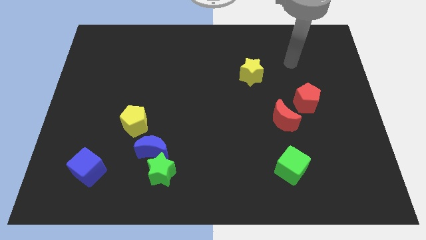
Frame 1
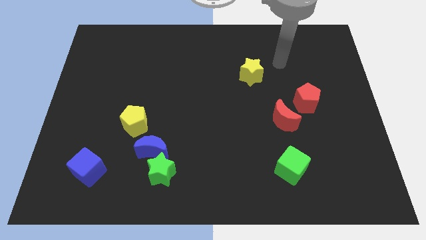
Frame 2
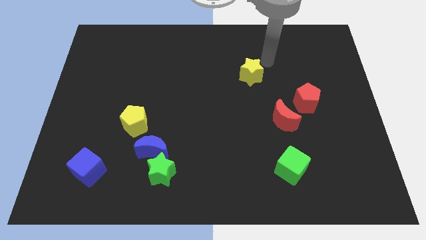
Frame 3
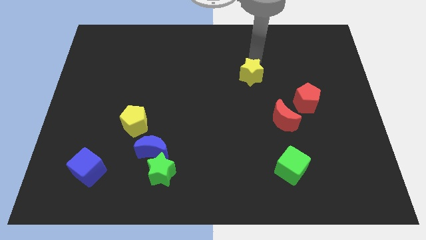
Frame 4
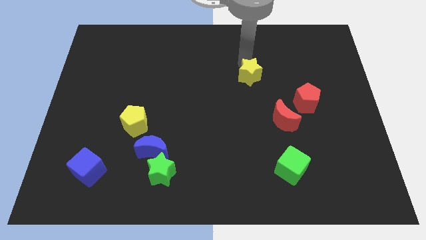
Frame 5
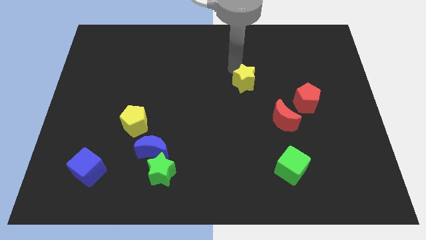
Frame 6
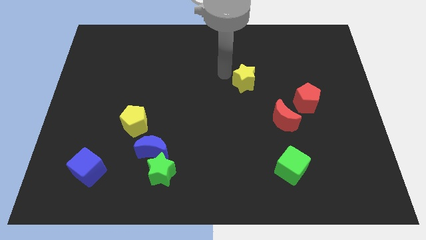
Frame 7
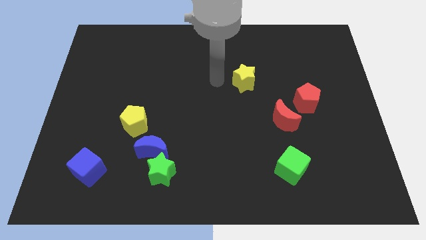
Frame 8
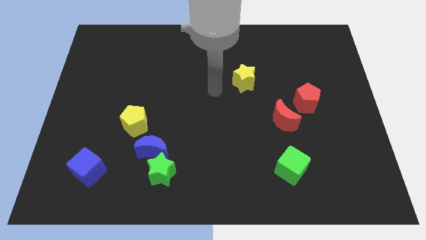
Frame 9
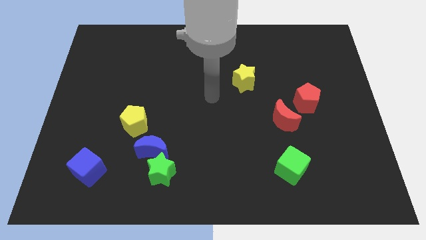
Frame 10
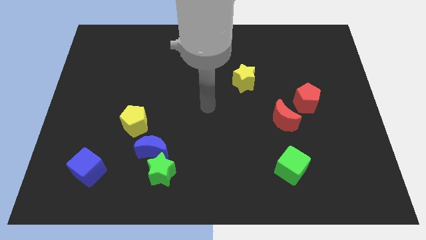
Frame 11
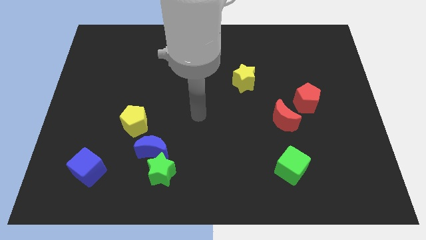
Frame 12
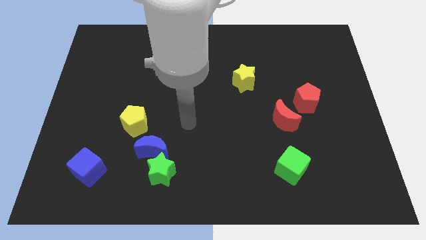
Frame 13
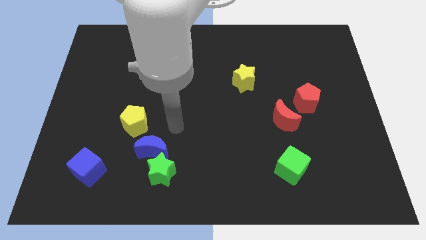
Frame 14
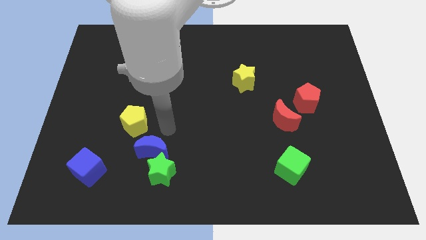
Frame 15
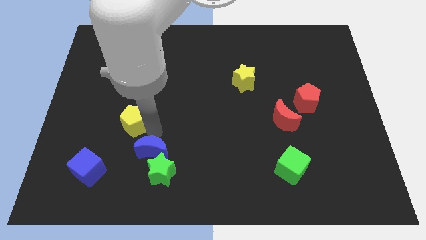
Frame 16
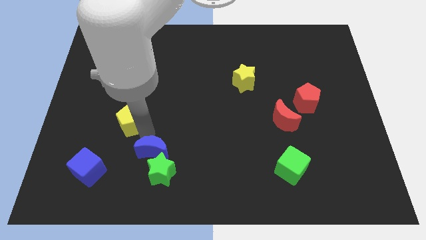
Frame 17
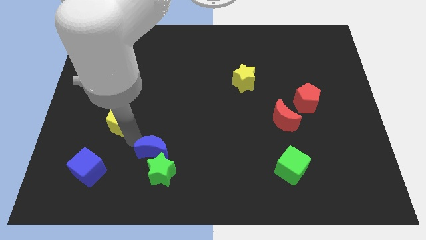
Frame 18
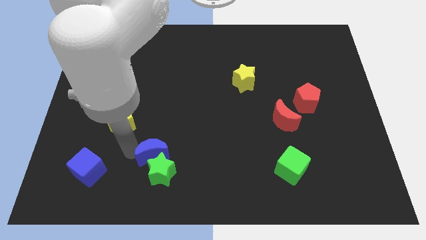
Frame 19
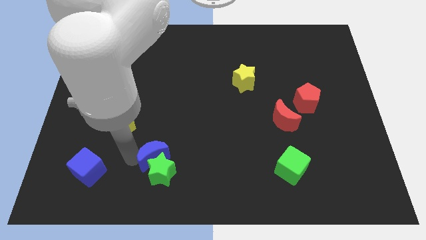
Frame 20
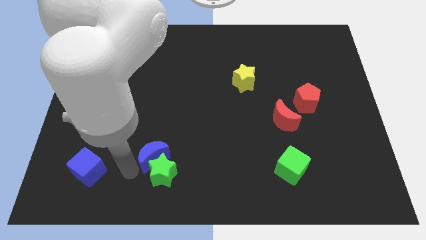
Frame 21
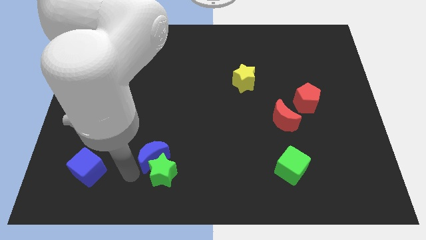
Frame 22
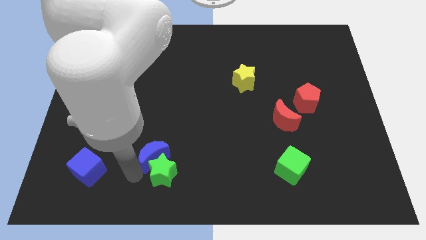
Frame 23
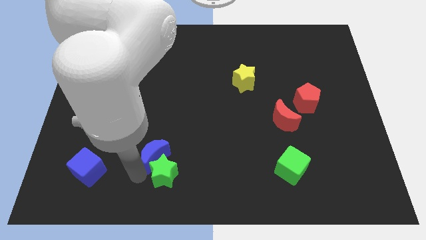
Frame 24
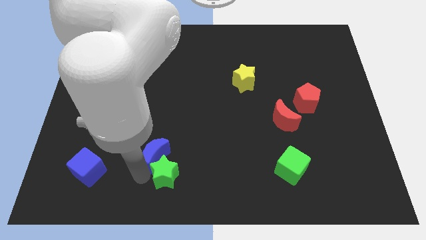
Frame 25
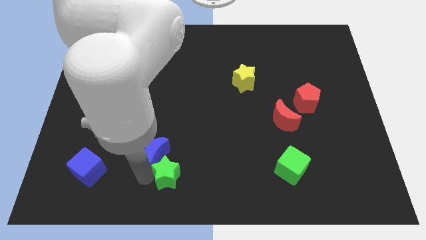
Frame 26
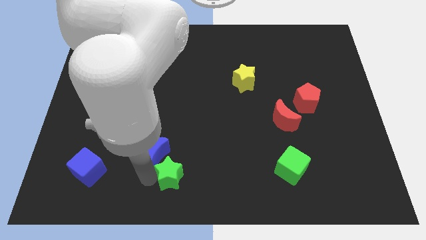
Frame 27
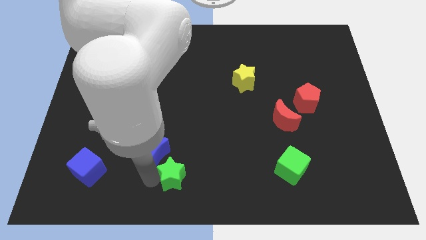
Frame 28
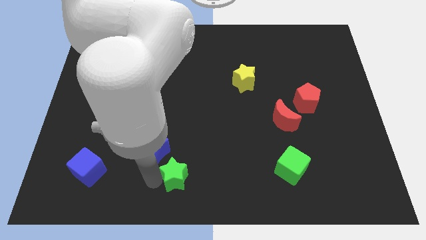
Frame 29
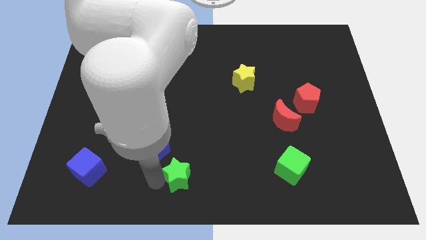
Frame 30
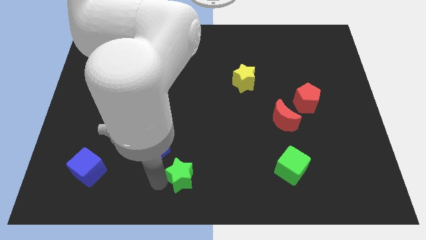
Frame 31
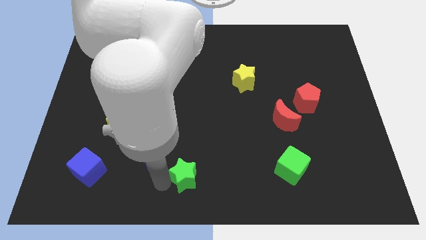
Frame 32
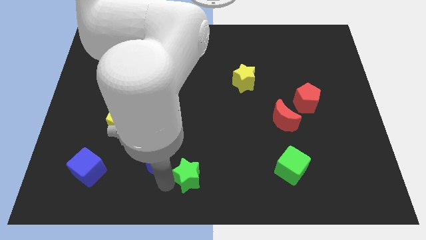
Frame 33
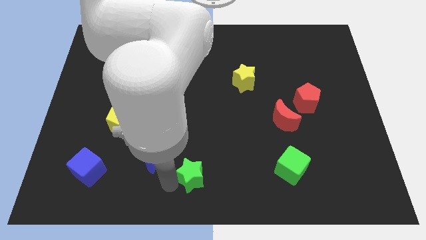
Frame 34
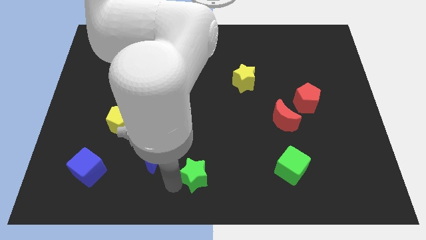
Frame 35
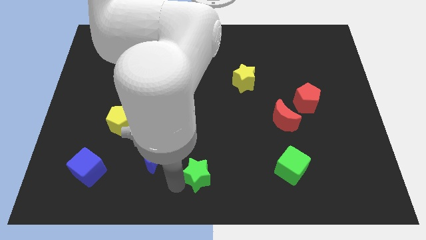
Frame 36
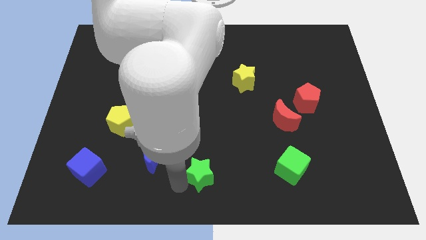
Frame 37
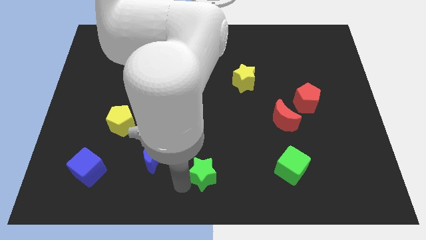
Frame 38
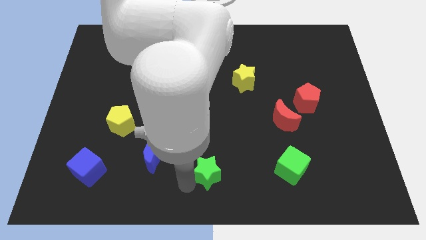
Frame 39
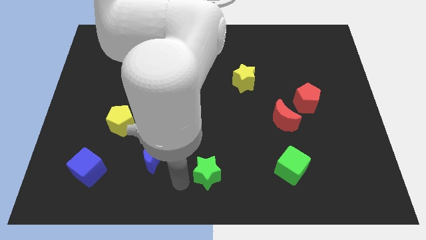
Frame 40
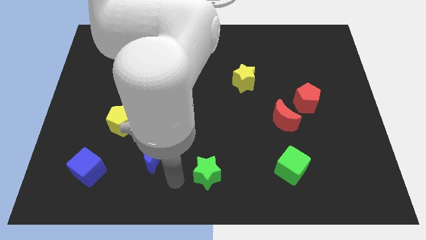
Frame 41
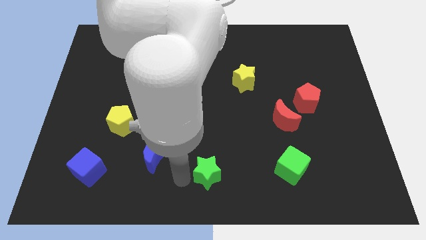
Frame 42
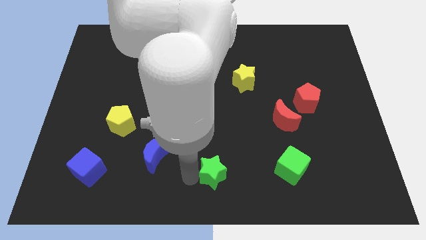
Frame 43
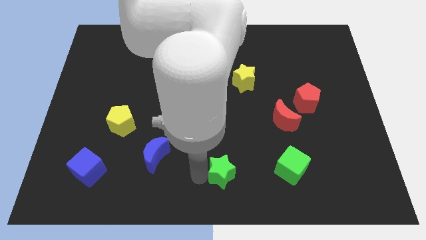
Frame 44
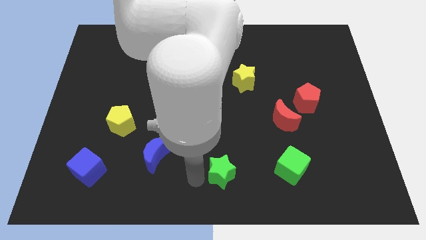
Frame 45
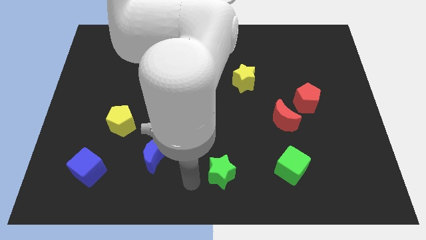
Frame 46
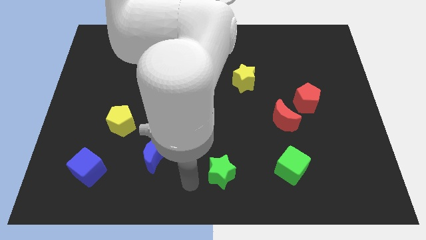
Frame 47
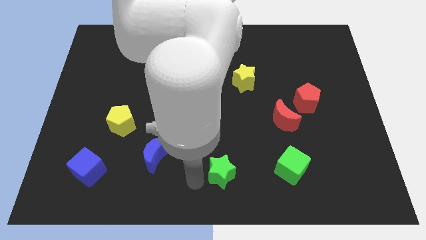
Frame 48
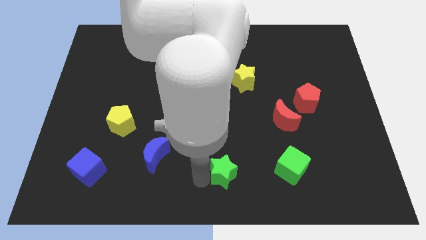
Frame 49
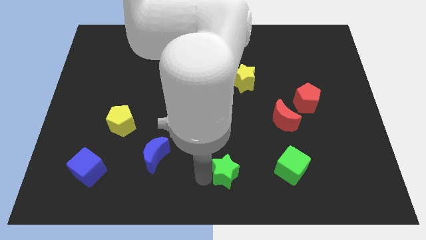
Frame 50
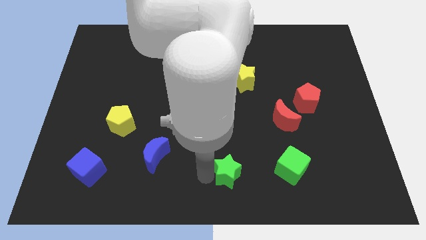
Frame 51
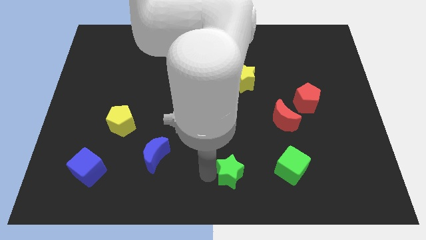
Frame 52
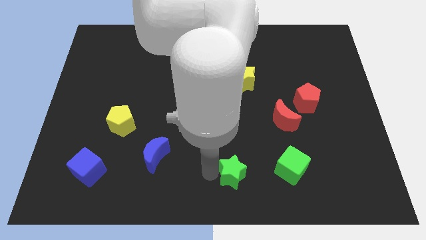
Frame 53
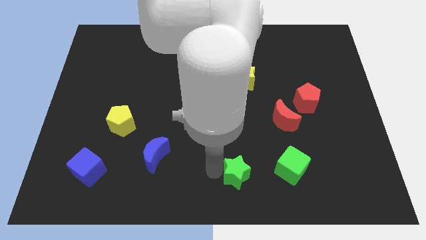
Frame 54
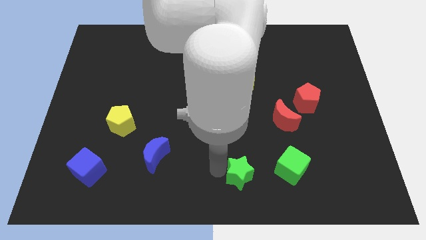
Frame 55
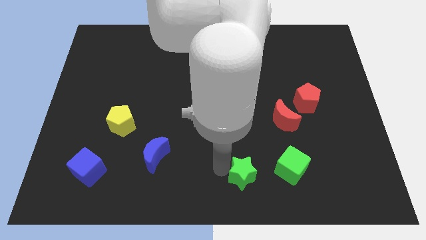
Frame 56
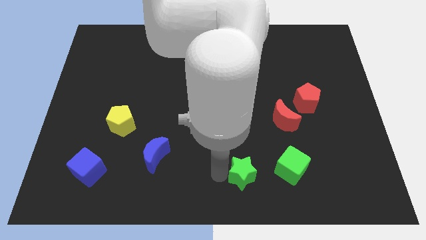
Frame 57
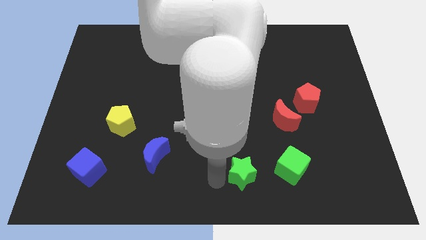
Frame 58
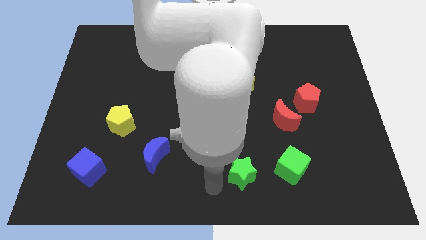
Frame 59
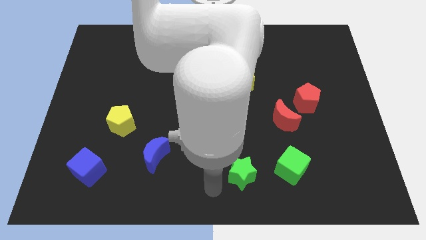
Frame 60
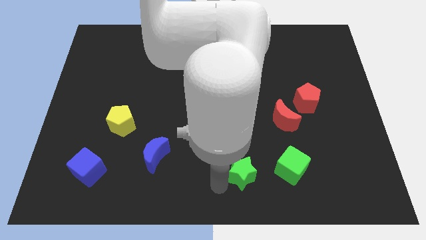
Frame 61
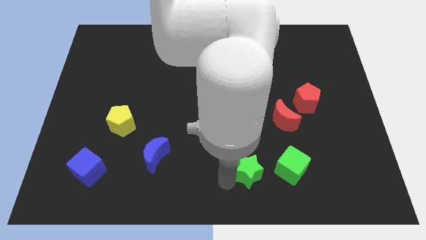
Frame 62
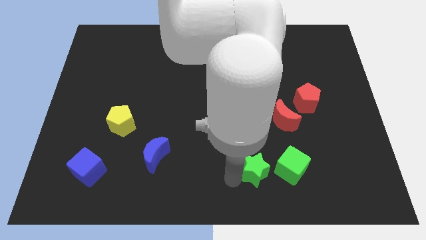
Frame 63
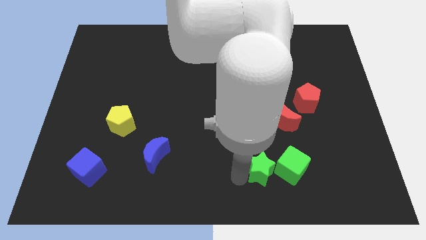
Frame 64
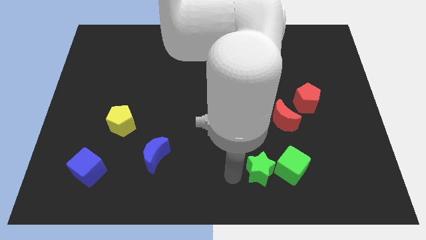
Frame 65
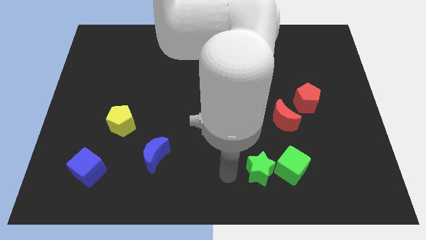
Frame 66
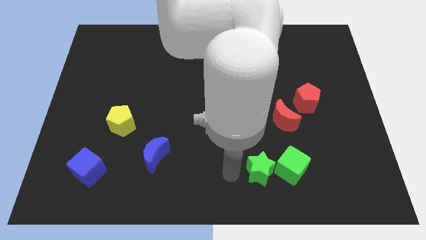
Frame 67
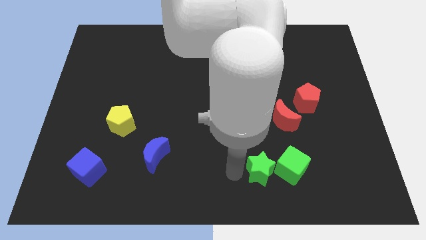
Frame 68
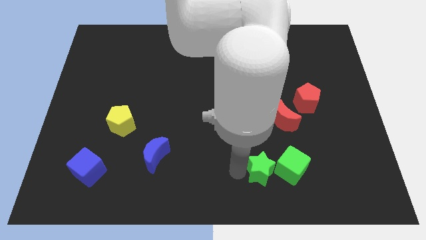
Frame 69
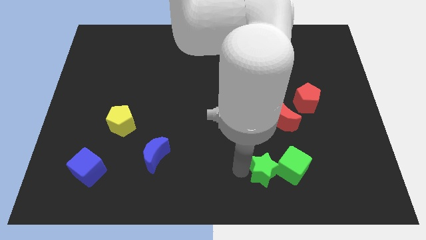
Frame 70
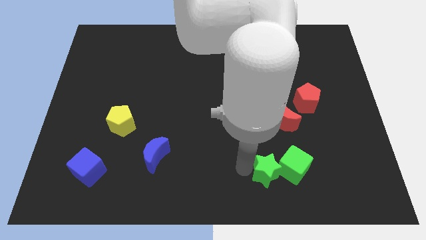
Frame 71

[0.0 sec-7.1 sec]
push the green star towards the green cube

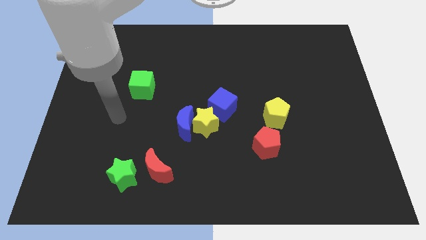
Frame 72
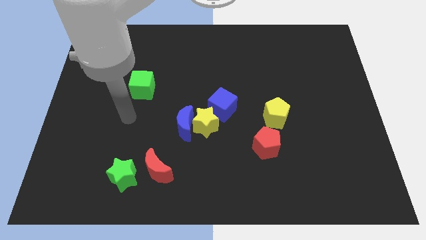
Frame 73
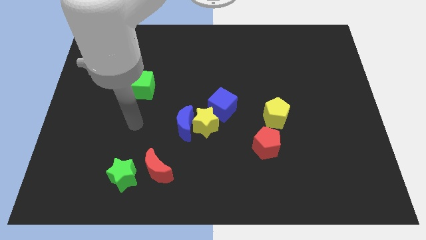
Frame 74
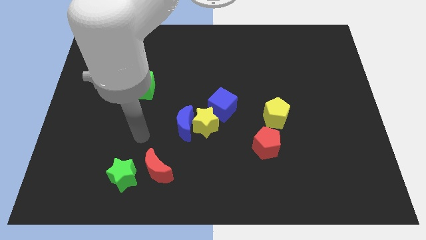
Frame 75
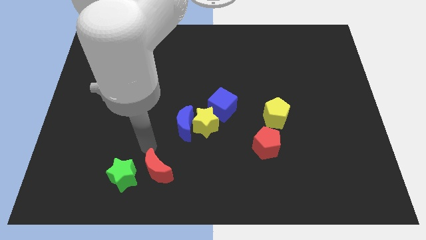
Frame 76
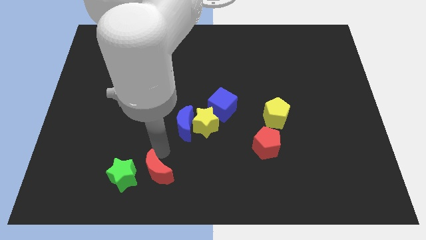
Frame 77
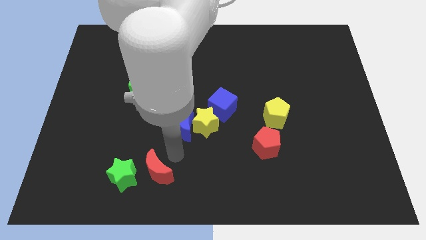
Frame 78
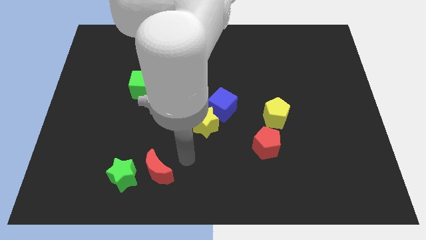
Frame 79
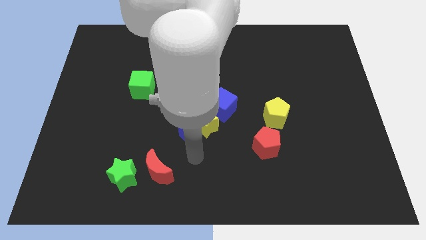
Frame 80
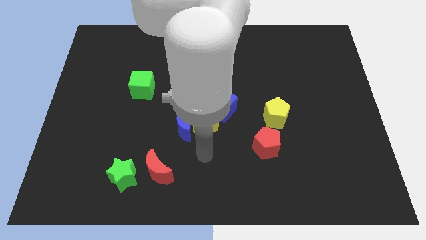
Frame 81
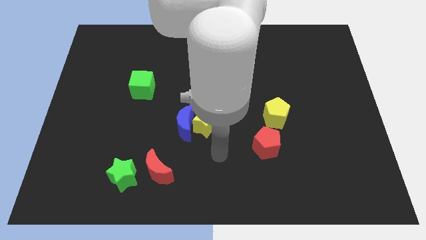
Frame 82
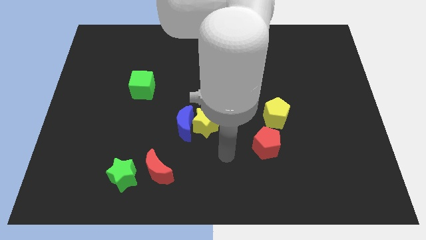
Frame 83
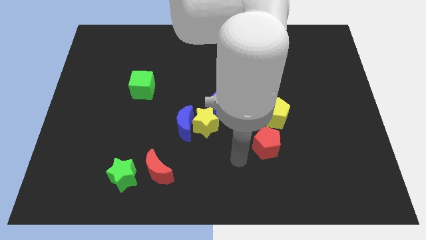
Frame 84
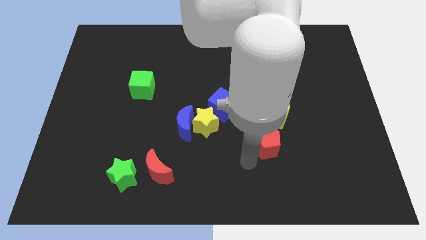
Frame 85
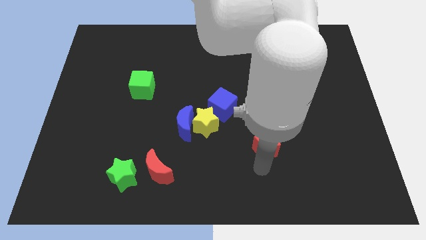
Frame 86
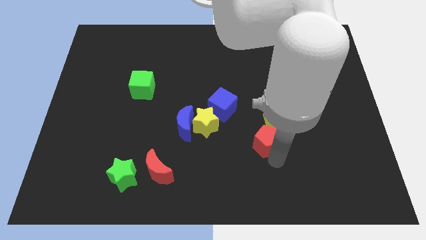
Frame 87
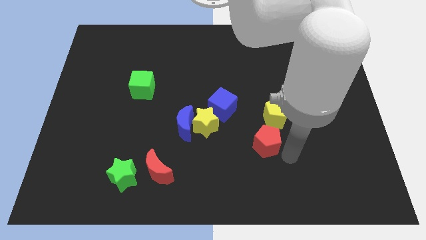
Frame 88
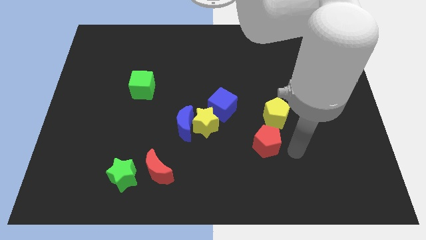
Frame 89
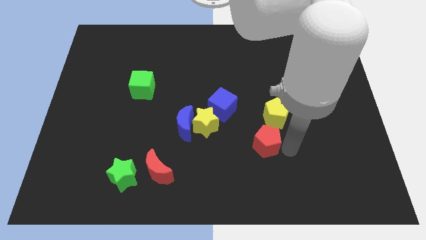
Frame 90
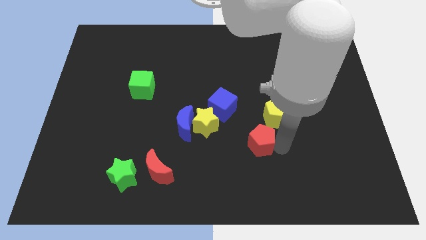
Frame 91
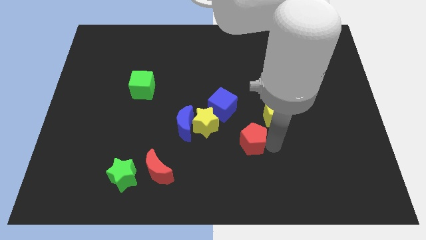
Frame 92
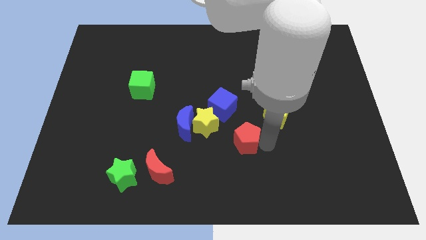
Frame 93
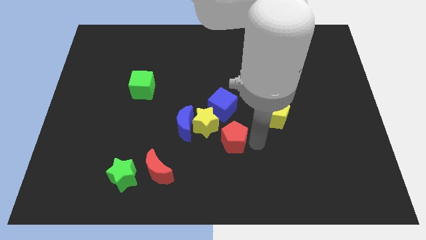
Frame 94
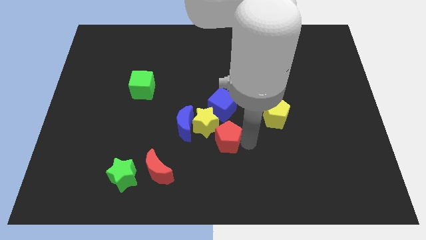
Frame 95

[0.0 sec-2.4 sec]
move the red pentagon next to the yellow star
